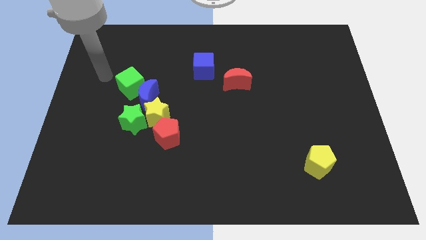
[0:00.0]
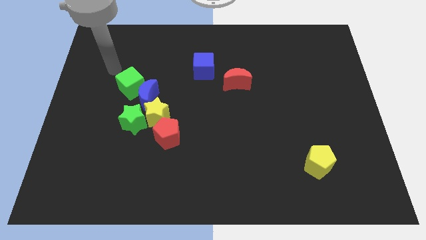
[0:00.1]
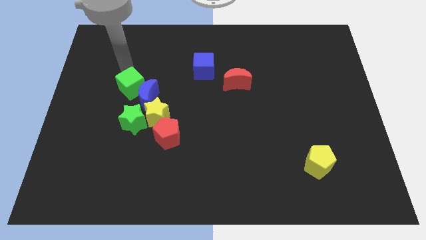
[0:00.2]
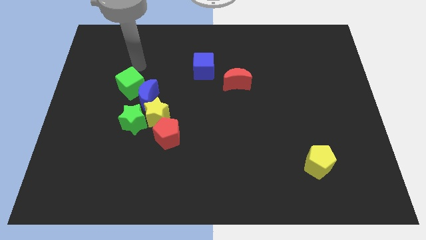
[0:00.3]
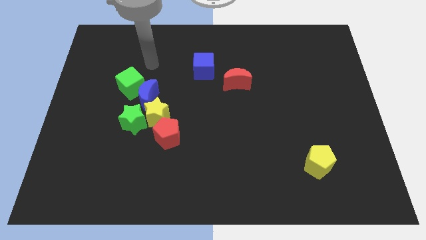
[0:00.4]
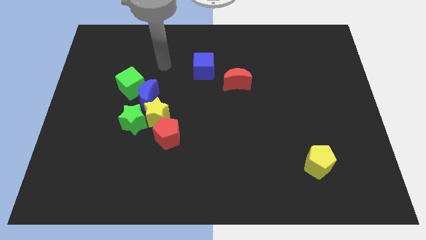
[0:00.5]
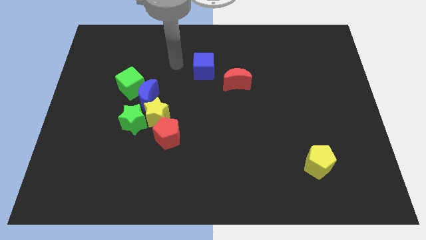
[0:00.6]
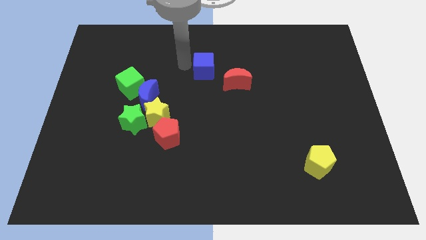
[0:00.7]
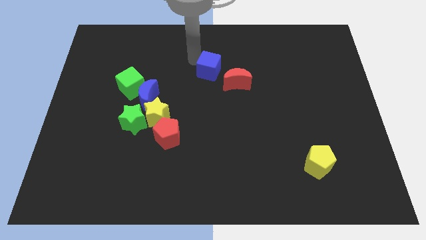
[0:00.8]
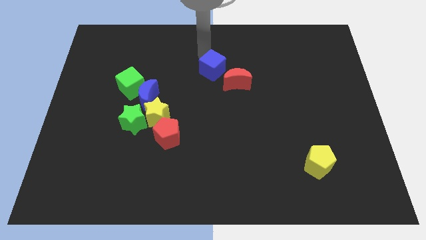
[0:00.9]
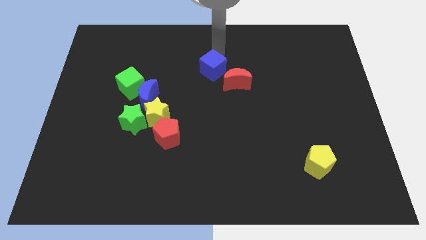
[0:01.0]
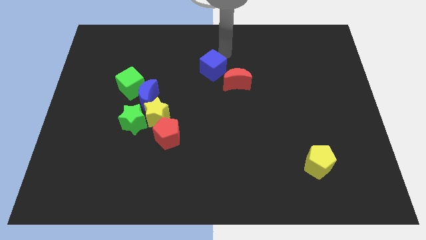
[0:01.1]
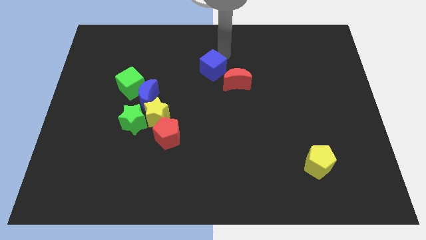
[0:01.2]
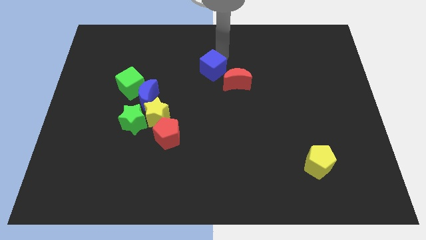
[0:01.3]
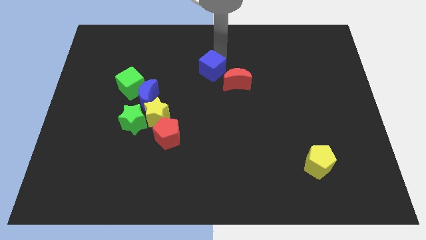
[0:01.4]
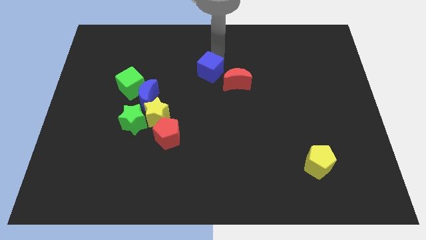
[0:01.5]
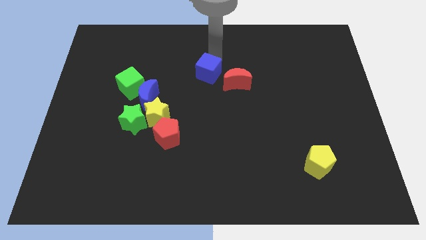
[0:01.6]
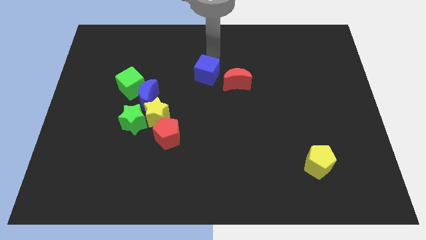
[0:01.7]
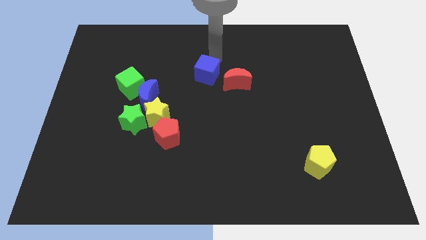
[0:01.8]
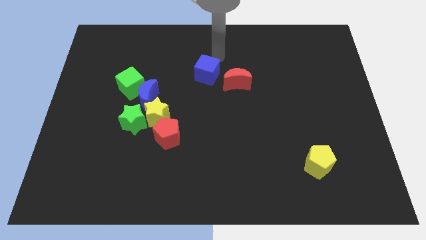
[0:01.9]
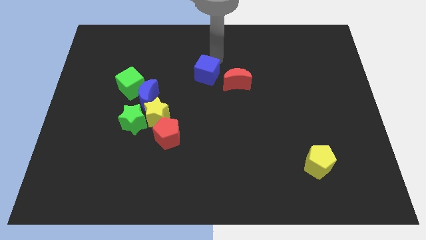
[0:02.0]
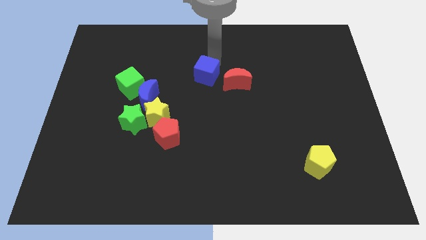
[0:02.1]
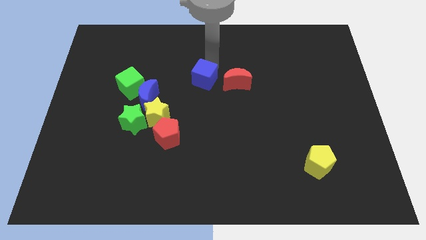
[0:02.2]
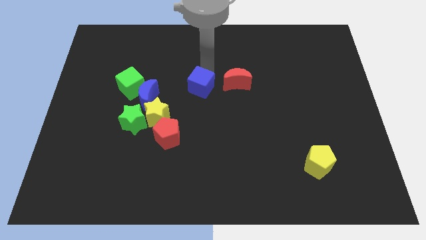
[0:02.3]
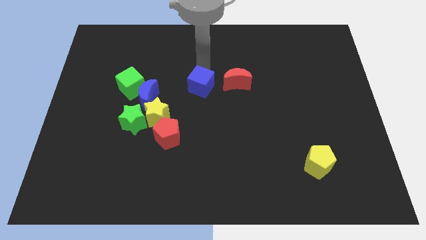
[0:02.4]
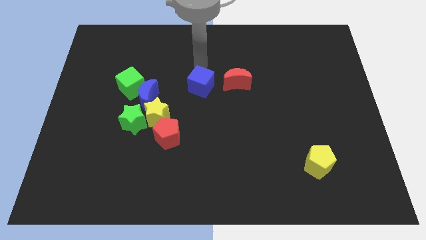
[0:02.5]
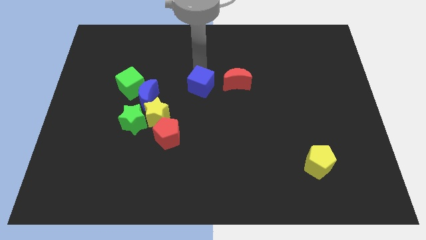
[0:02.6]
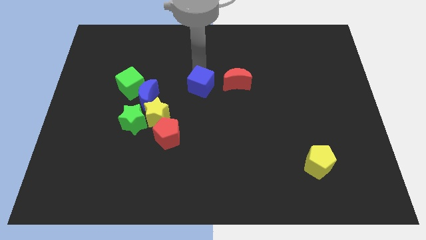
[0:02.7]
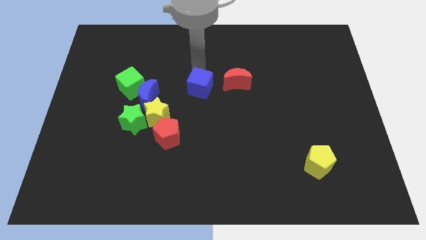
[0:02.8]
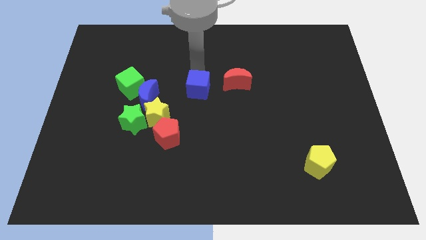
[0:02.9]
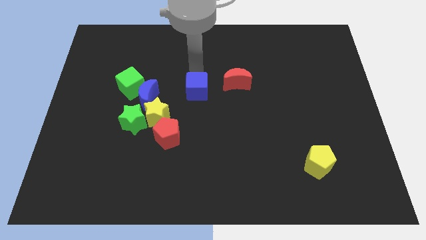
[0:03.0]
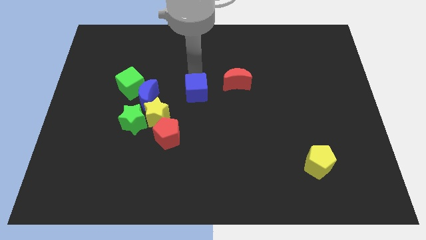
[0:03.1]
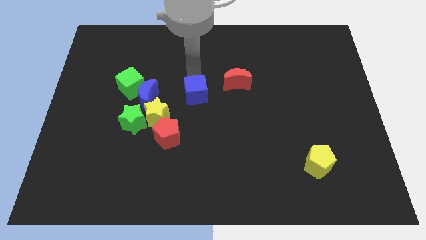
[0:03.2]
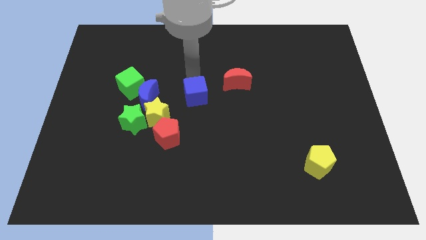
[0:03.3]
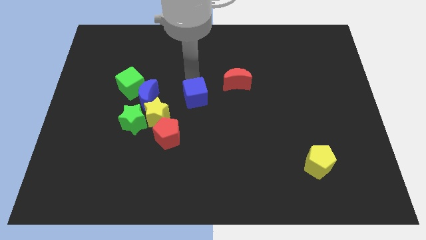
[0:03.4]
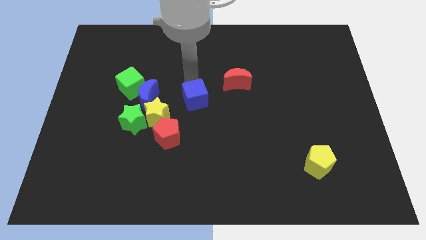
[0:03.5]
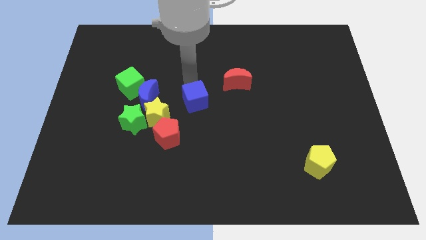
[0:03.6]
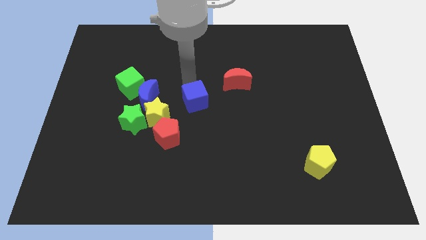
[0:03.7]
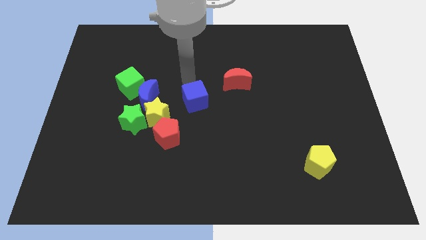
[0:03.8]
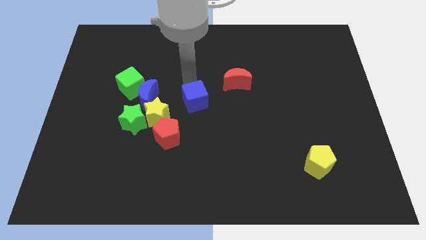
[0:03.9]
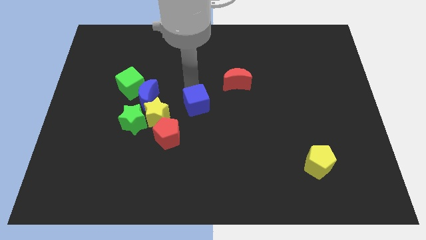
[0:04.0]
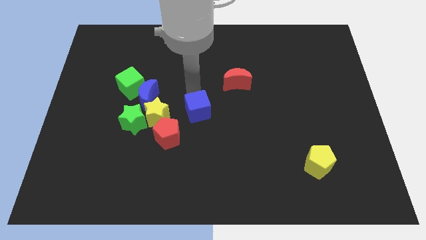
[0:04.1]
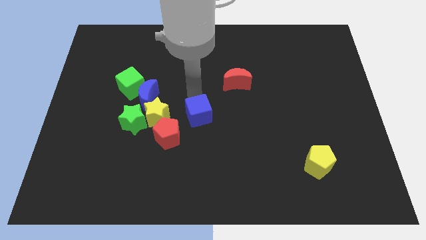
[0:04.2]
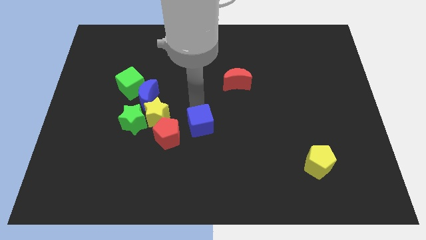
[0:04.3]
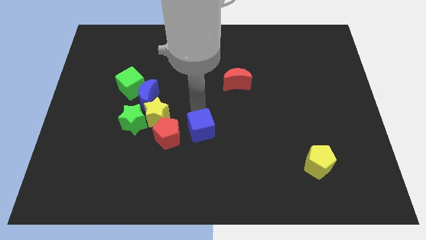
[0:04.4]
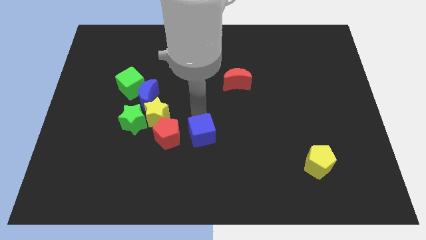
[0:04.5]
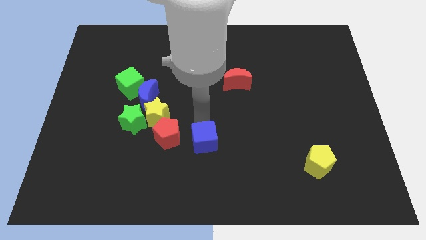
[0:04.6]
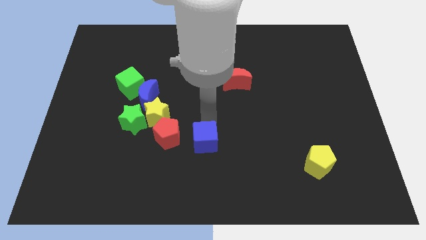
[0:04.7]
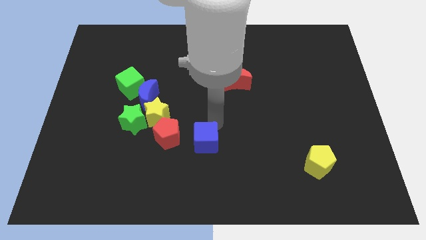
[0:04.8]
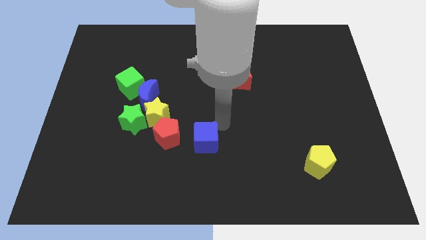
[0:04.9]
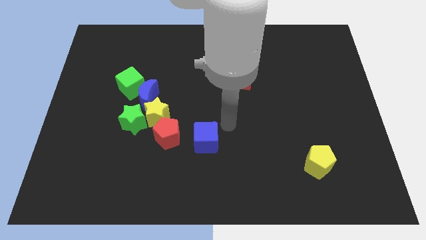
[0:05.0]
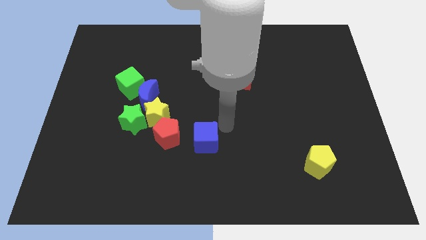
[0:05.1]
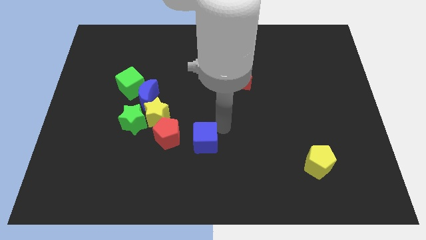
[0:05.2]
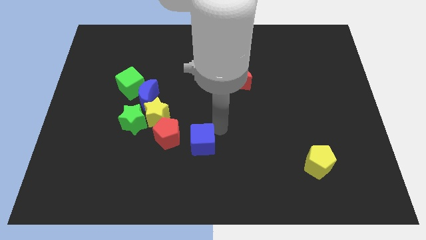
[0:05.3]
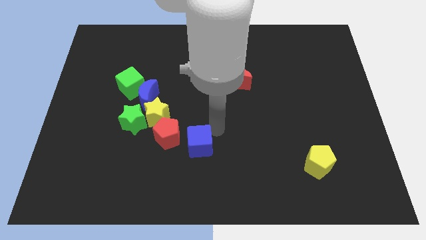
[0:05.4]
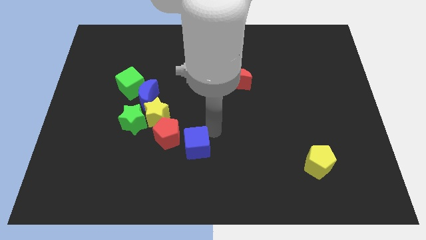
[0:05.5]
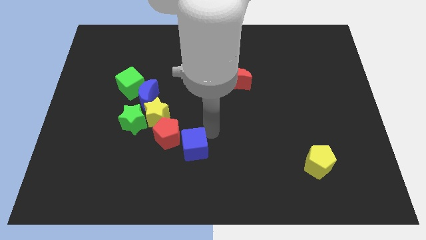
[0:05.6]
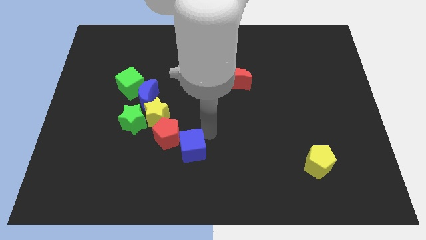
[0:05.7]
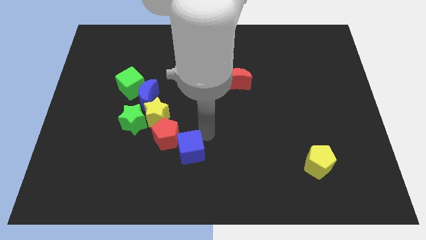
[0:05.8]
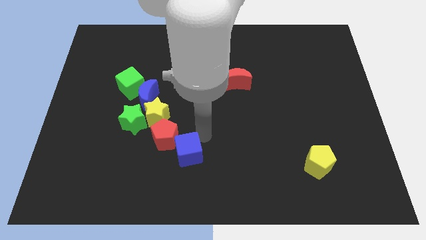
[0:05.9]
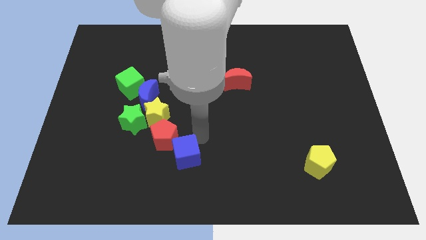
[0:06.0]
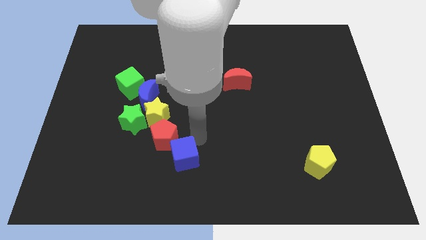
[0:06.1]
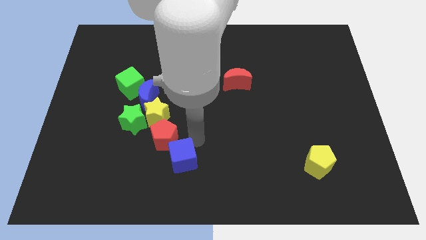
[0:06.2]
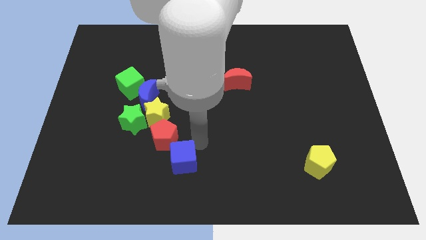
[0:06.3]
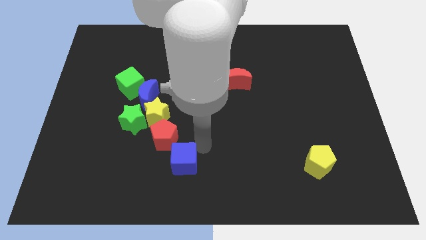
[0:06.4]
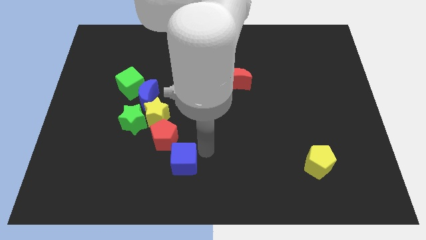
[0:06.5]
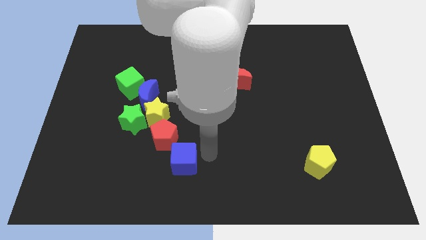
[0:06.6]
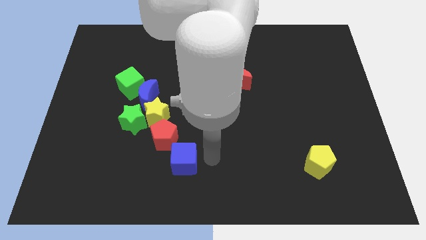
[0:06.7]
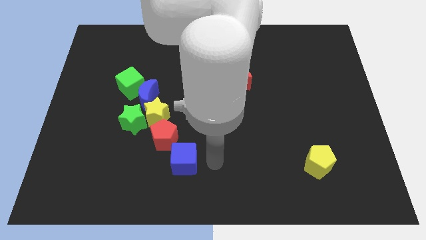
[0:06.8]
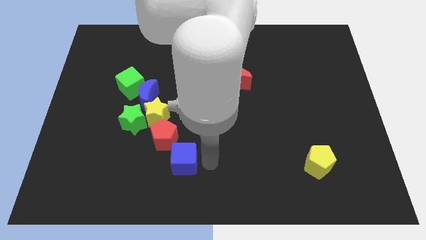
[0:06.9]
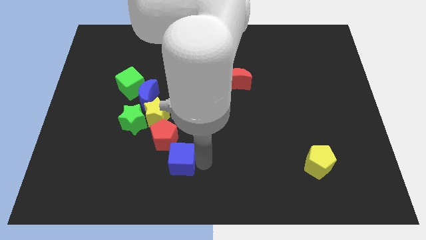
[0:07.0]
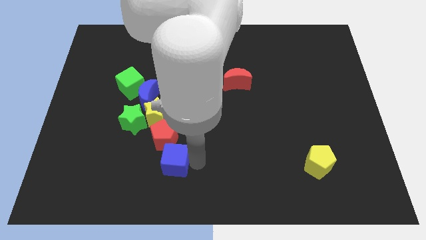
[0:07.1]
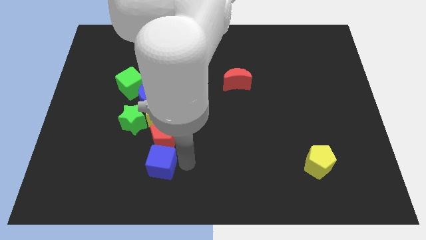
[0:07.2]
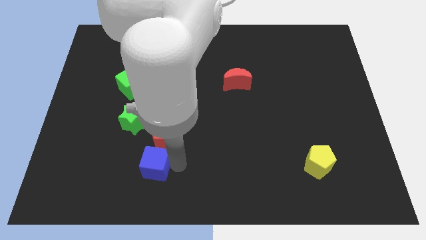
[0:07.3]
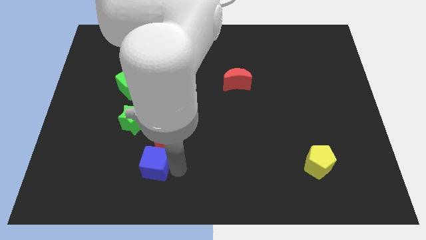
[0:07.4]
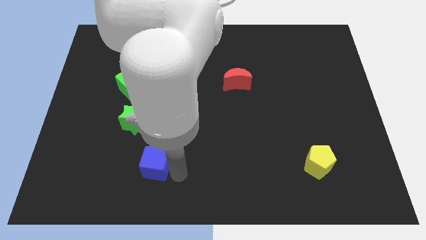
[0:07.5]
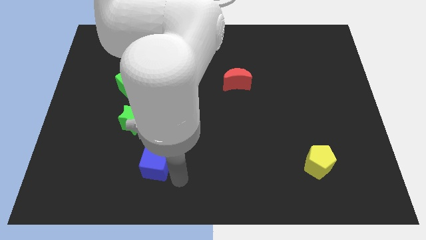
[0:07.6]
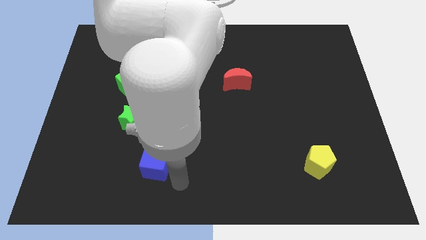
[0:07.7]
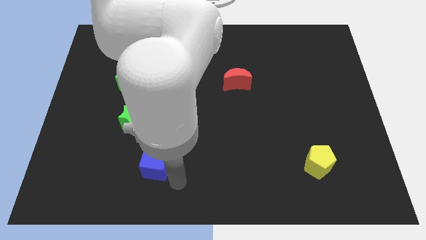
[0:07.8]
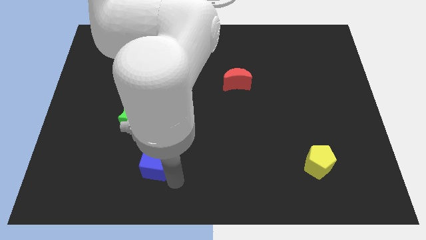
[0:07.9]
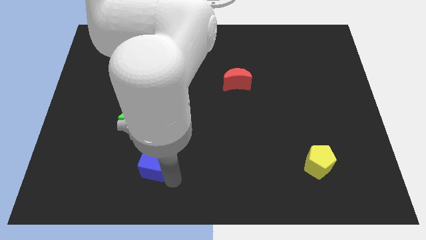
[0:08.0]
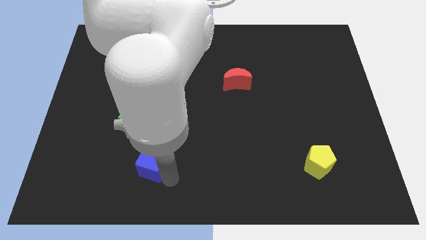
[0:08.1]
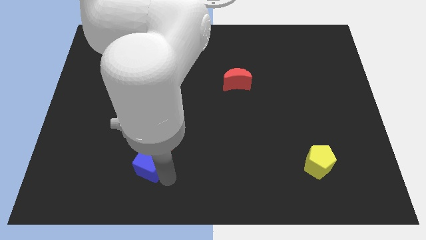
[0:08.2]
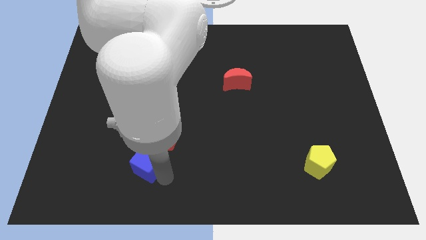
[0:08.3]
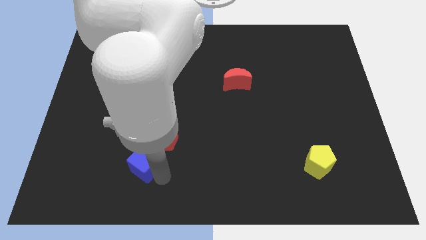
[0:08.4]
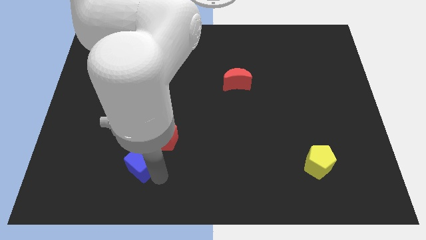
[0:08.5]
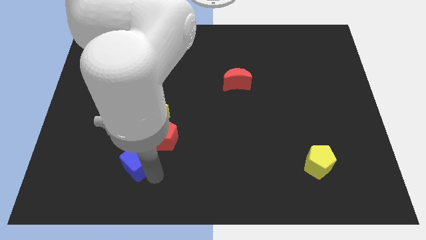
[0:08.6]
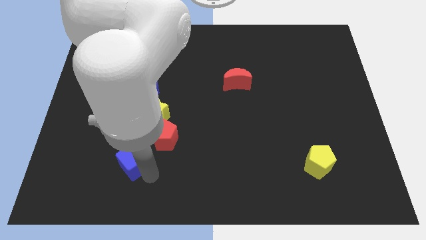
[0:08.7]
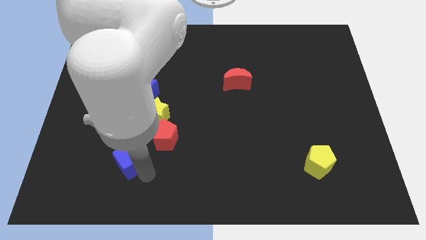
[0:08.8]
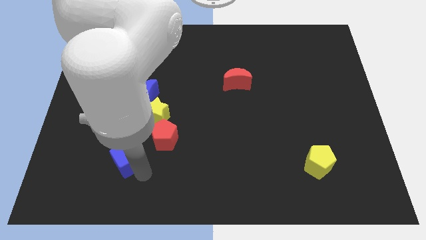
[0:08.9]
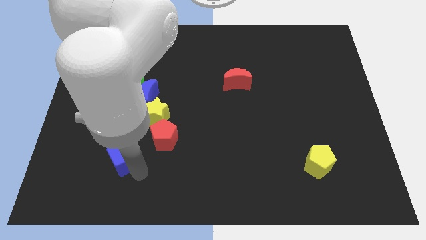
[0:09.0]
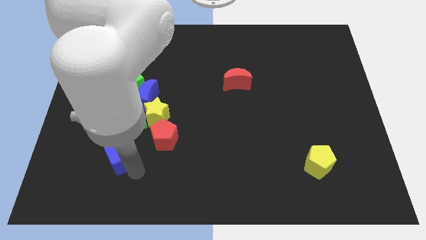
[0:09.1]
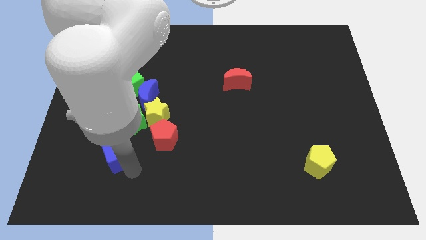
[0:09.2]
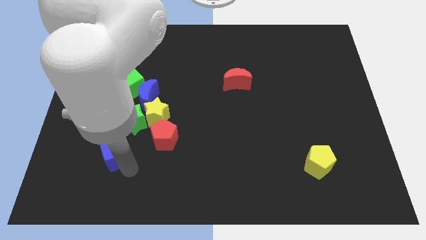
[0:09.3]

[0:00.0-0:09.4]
move the blue cube diagonally down and to the left of the yellow star
